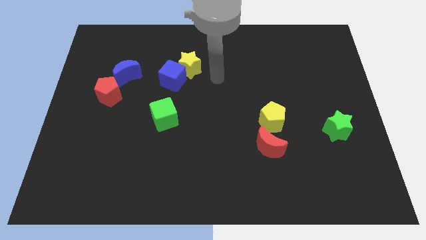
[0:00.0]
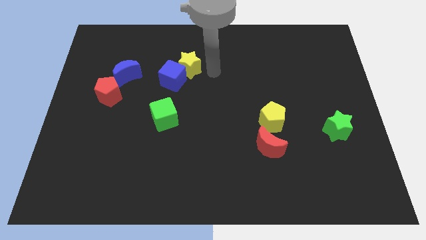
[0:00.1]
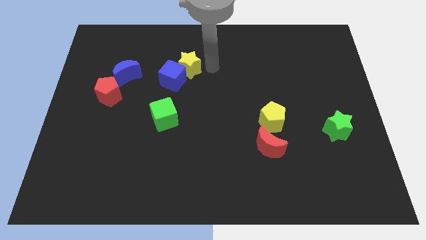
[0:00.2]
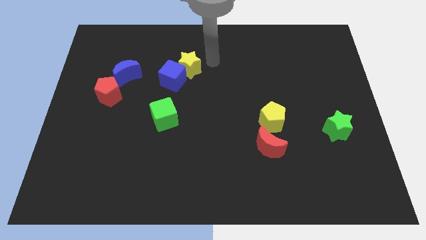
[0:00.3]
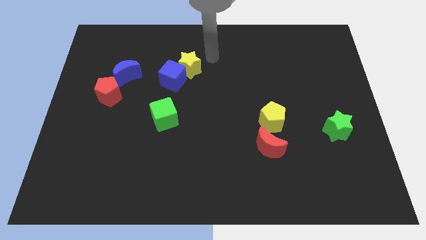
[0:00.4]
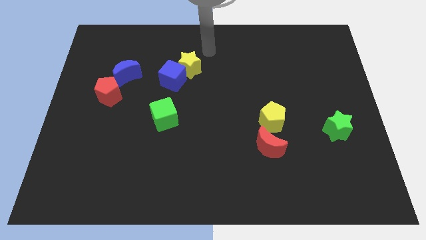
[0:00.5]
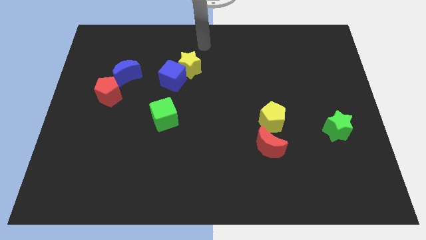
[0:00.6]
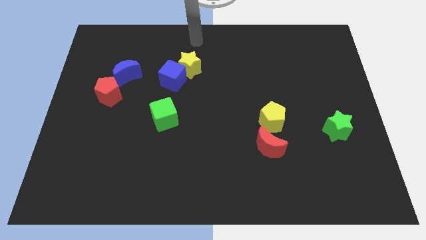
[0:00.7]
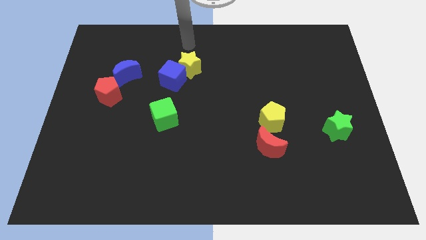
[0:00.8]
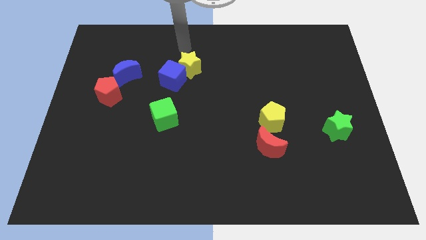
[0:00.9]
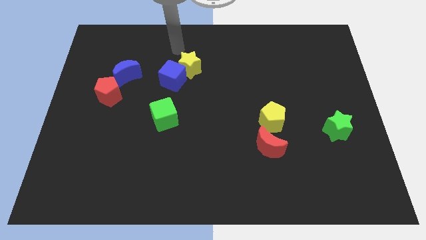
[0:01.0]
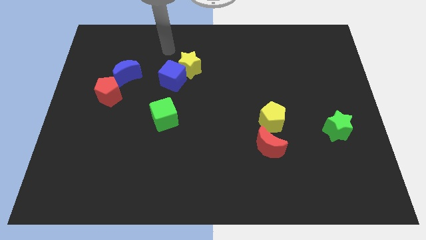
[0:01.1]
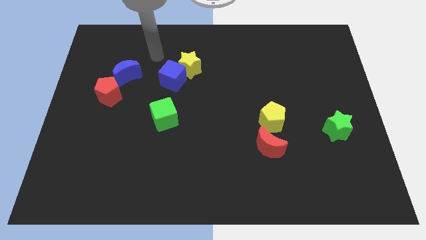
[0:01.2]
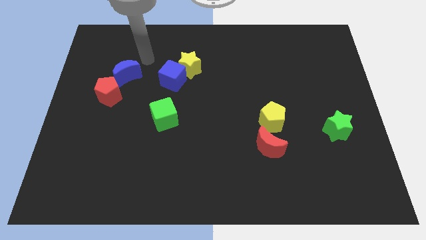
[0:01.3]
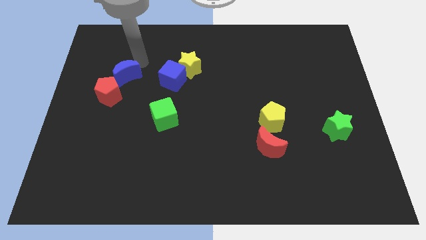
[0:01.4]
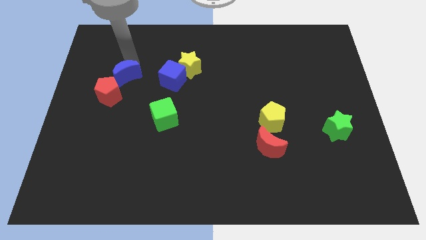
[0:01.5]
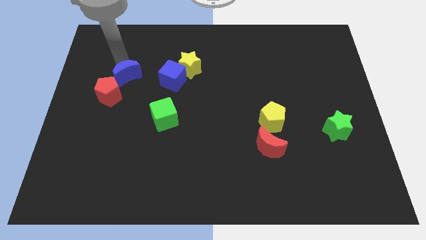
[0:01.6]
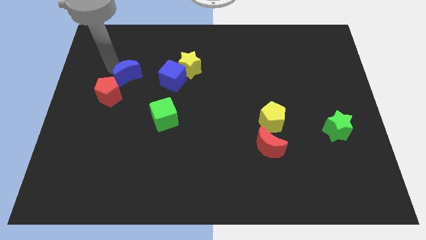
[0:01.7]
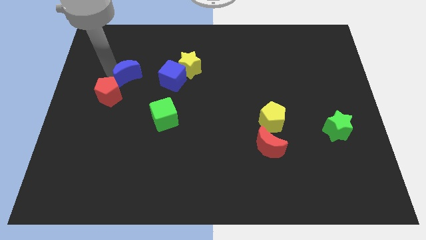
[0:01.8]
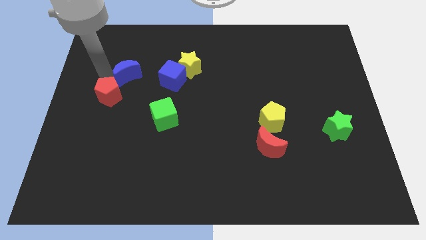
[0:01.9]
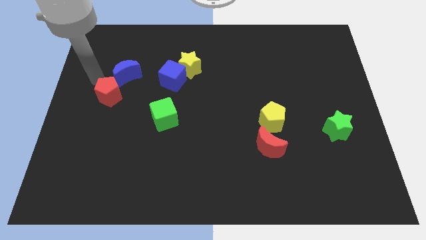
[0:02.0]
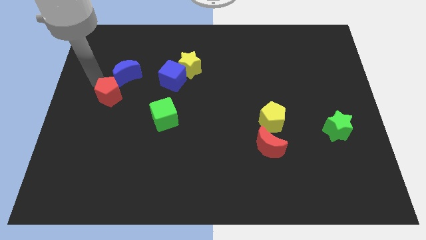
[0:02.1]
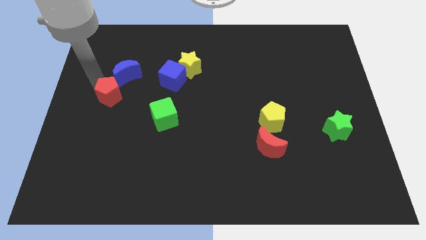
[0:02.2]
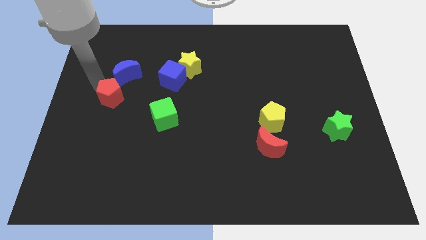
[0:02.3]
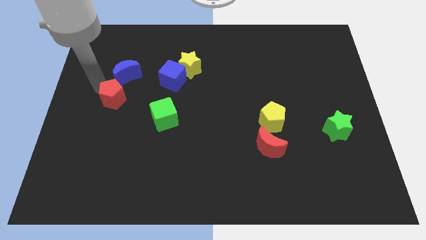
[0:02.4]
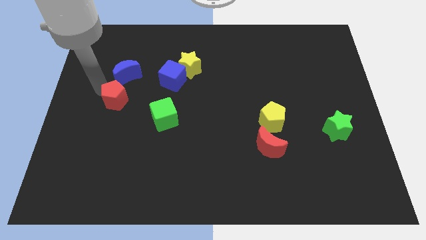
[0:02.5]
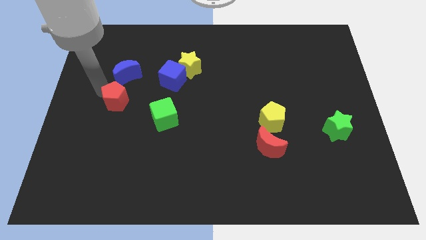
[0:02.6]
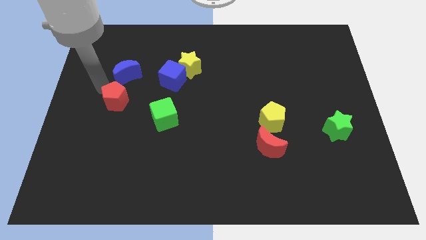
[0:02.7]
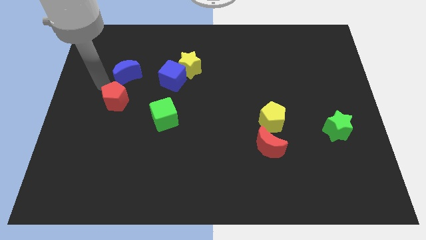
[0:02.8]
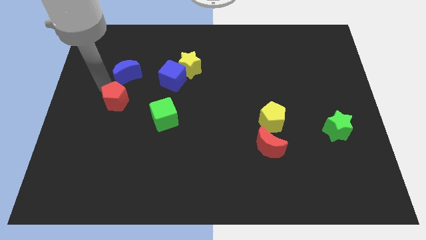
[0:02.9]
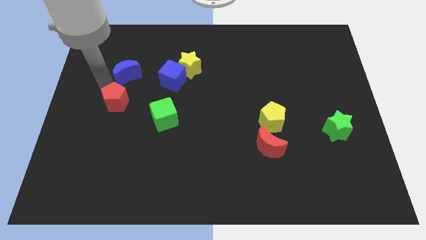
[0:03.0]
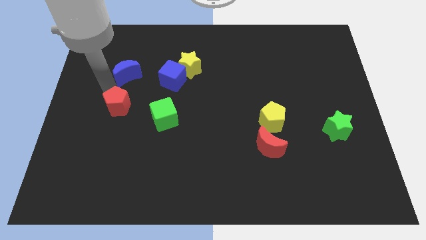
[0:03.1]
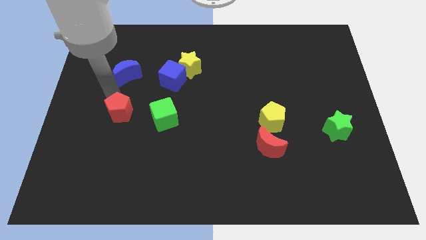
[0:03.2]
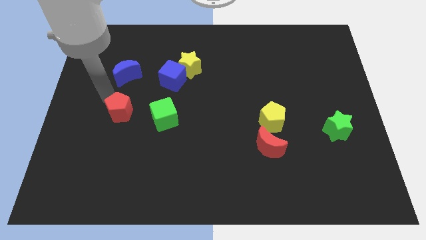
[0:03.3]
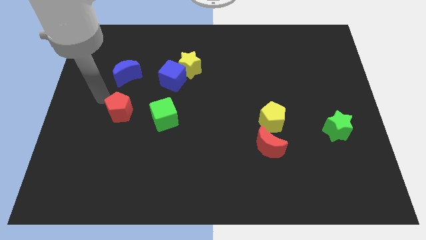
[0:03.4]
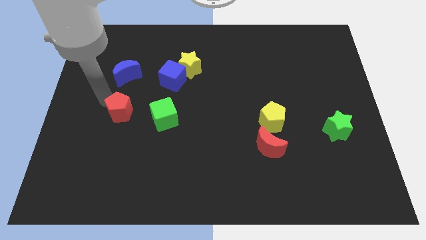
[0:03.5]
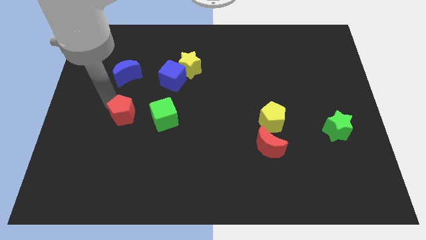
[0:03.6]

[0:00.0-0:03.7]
push the red pentagon down and then to the right a little bit

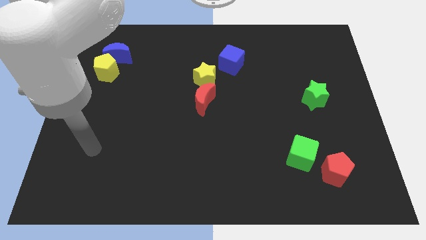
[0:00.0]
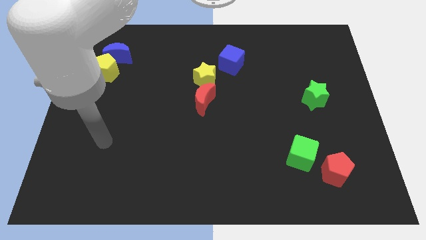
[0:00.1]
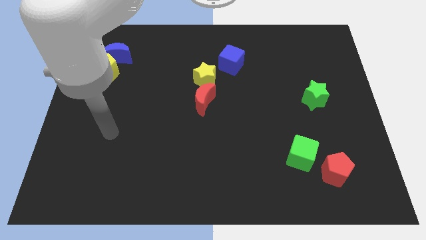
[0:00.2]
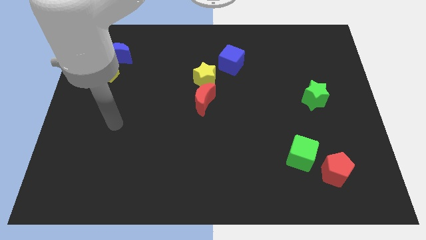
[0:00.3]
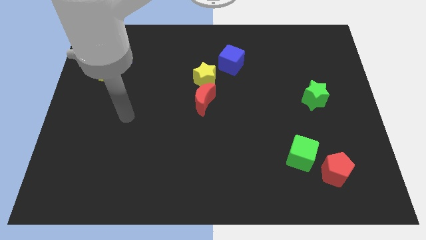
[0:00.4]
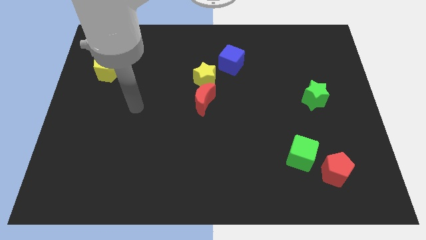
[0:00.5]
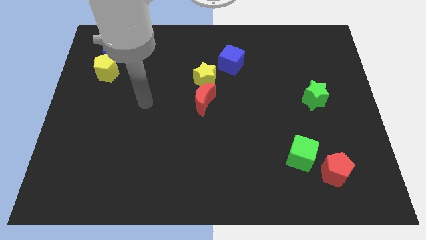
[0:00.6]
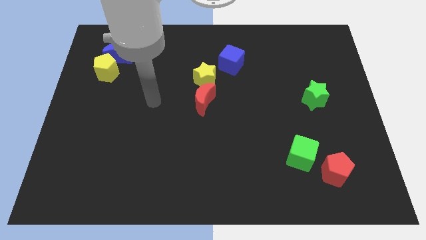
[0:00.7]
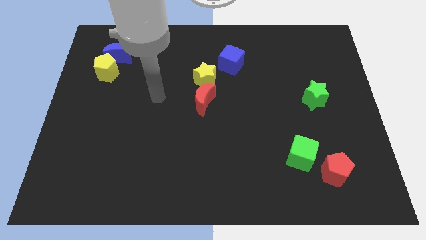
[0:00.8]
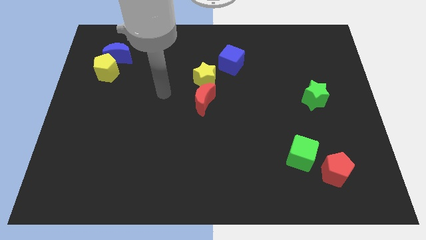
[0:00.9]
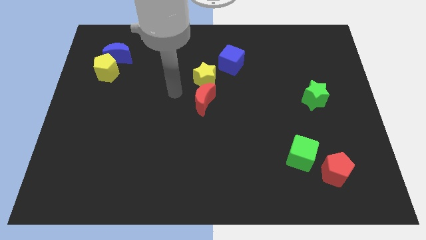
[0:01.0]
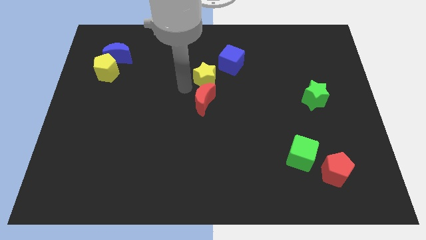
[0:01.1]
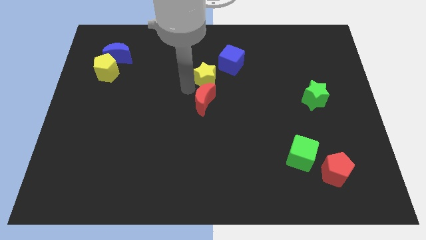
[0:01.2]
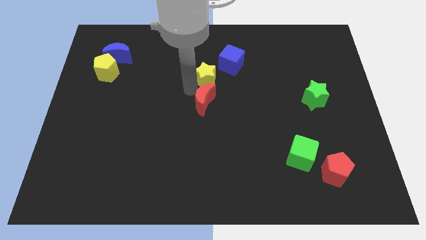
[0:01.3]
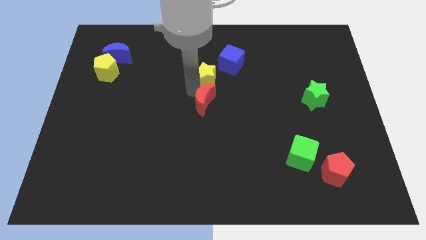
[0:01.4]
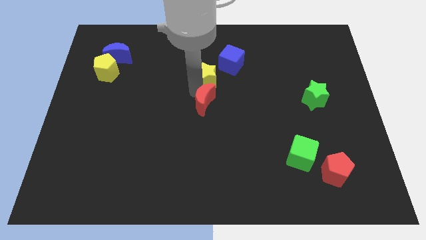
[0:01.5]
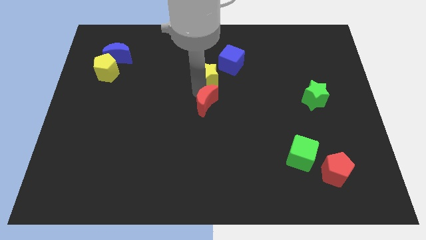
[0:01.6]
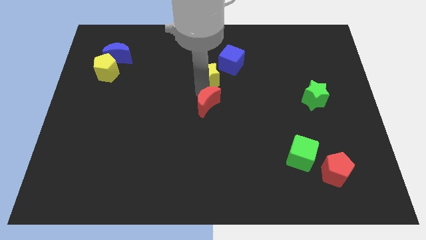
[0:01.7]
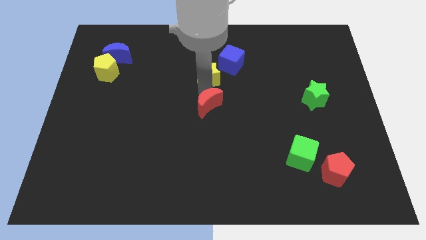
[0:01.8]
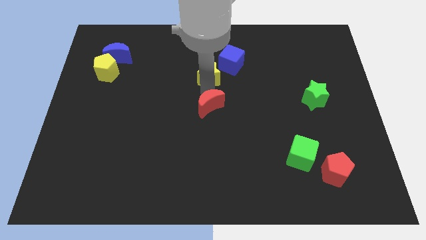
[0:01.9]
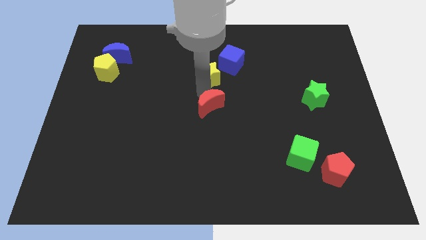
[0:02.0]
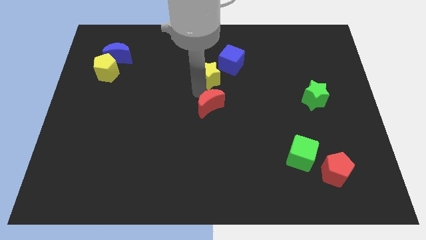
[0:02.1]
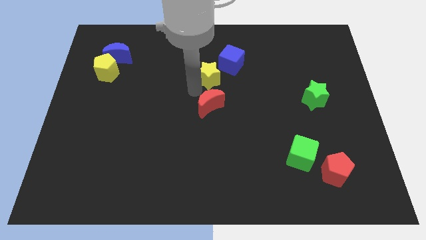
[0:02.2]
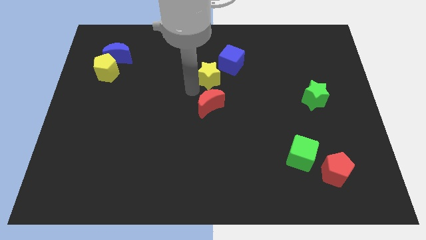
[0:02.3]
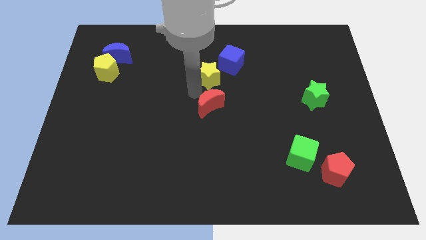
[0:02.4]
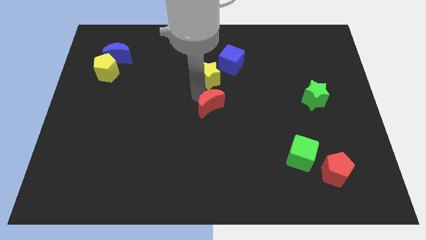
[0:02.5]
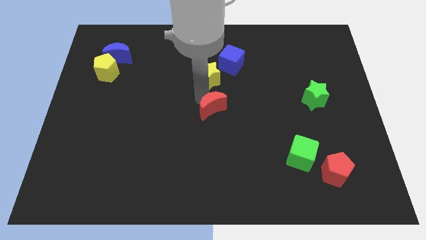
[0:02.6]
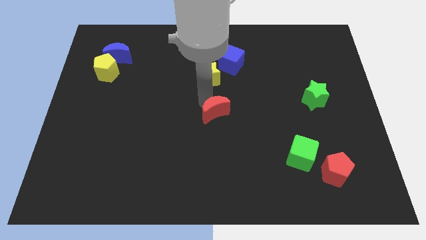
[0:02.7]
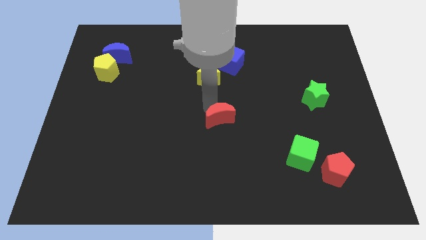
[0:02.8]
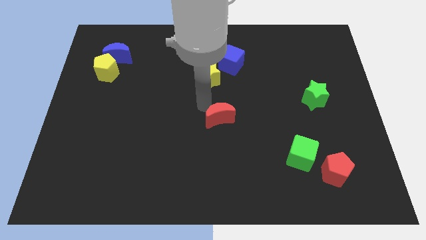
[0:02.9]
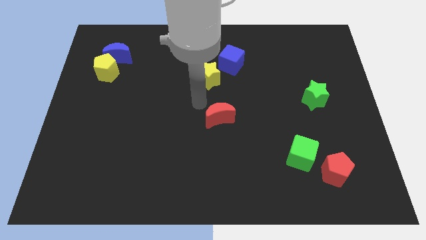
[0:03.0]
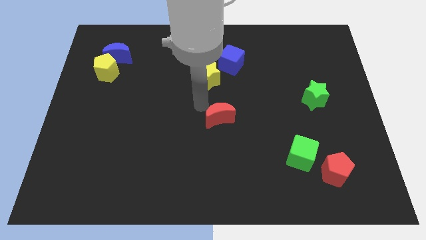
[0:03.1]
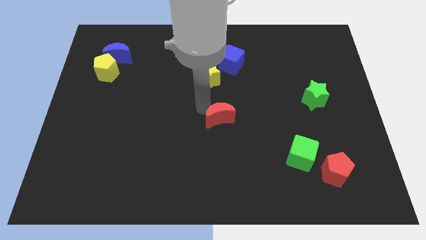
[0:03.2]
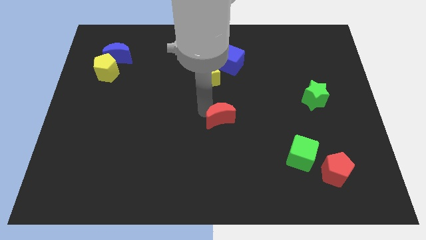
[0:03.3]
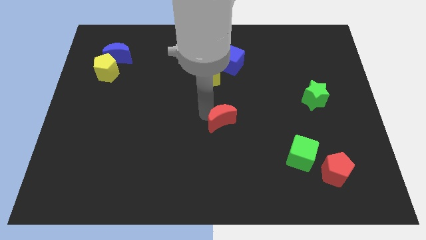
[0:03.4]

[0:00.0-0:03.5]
move the red moon a little bit diagonally downwards and to the right

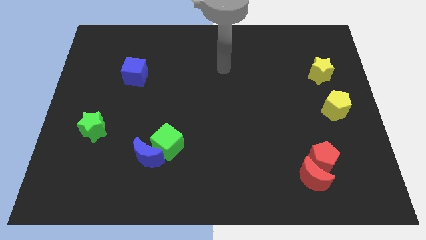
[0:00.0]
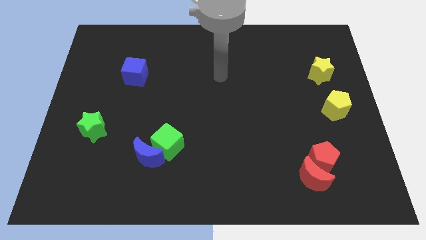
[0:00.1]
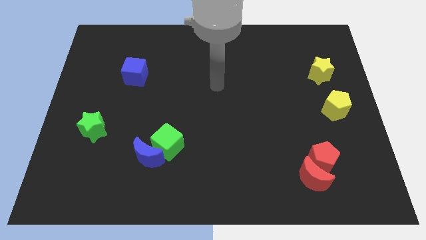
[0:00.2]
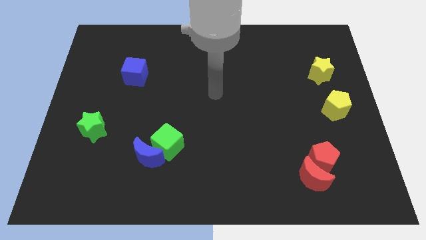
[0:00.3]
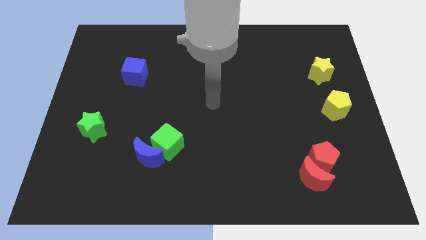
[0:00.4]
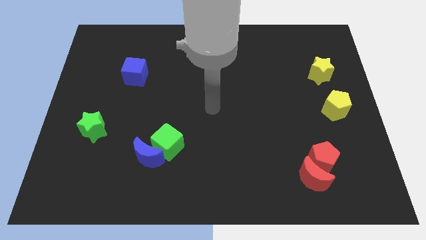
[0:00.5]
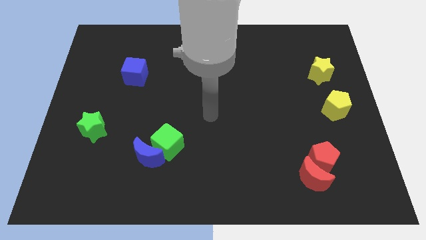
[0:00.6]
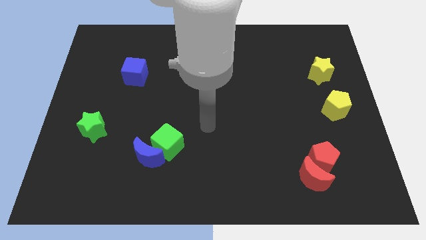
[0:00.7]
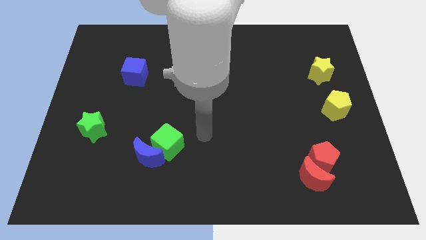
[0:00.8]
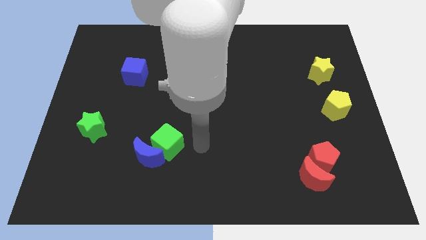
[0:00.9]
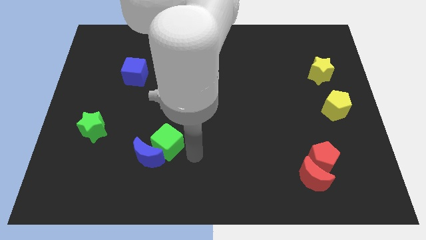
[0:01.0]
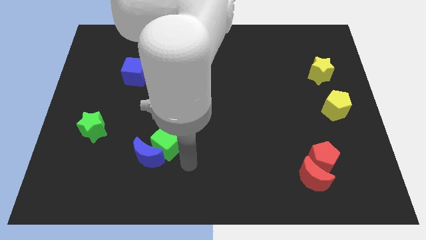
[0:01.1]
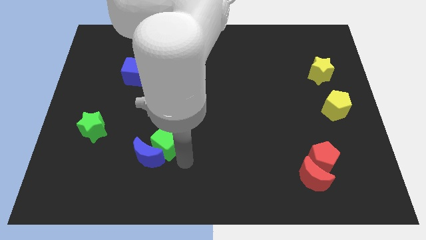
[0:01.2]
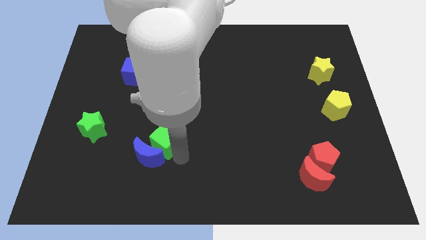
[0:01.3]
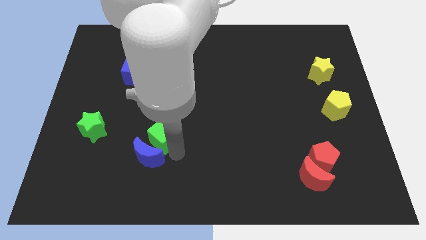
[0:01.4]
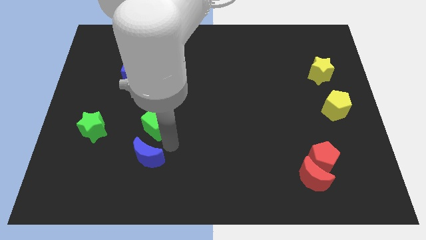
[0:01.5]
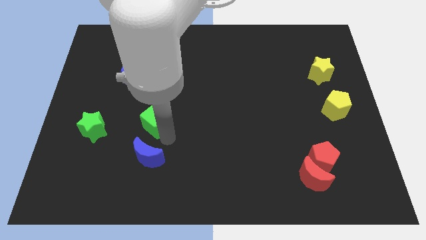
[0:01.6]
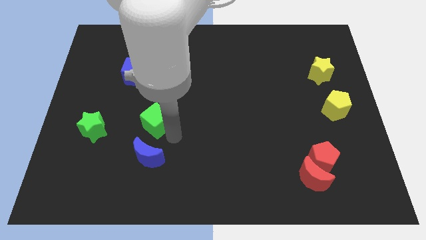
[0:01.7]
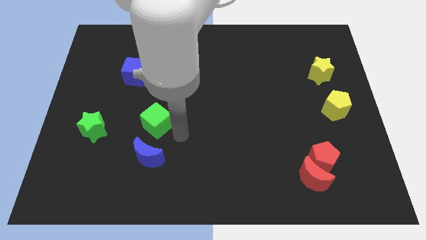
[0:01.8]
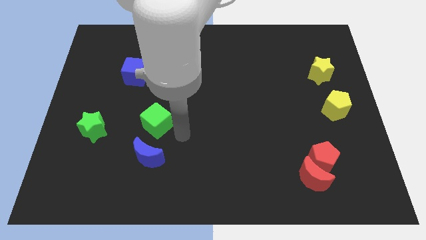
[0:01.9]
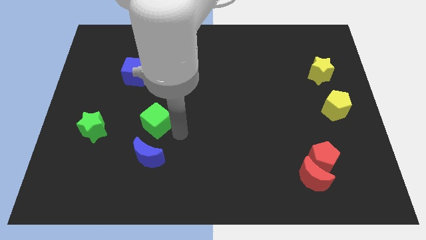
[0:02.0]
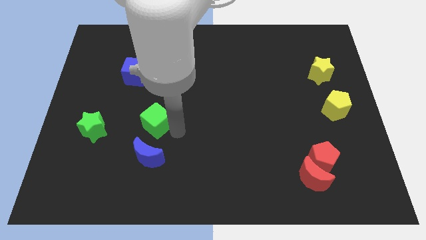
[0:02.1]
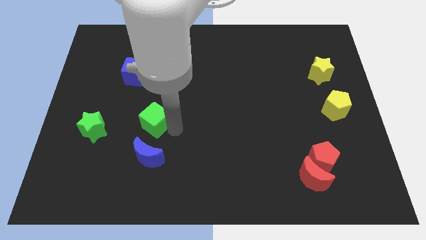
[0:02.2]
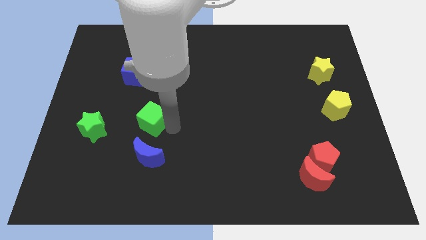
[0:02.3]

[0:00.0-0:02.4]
slide the green cube upwards and then left a little
